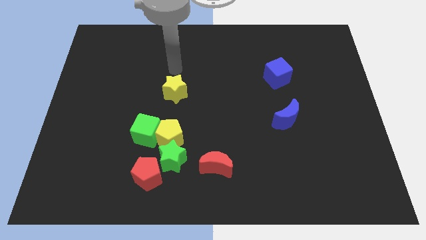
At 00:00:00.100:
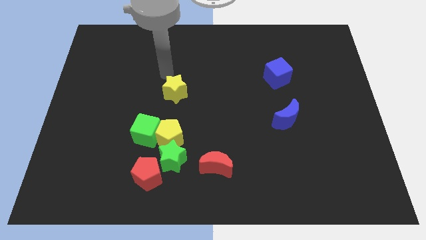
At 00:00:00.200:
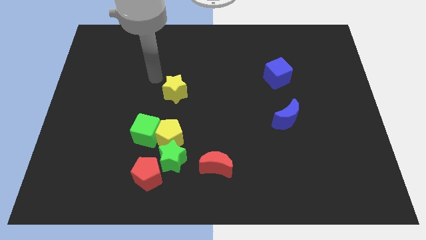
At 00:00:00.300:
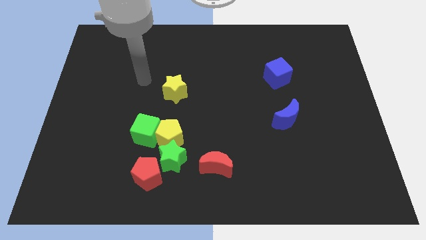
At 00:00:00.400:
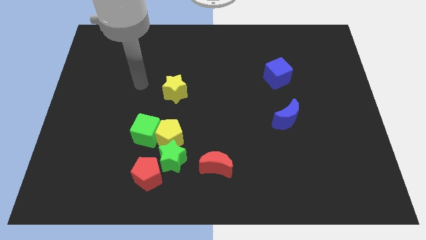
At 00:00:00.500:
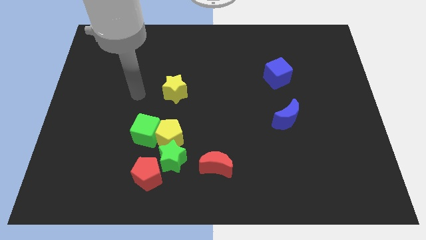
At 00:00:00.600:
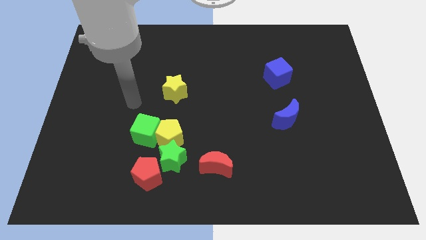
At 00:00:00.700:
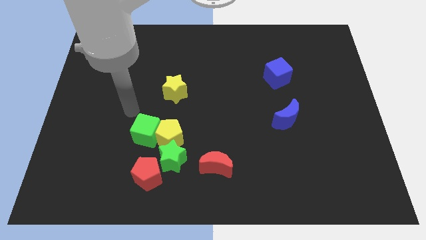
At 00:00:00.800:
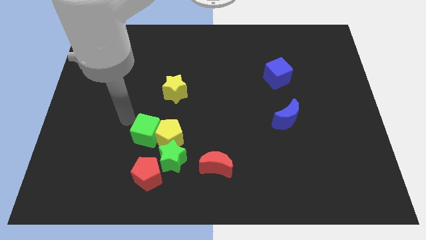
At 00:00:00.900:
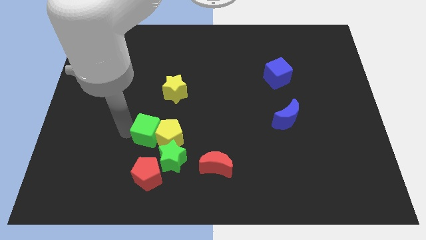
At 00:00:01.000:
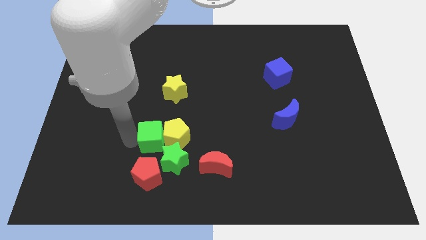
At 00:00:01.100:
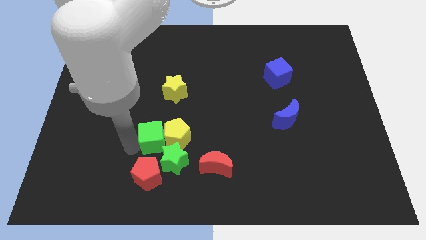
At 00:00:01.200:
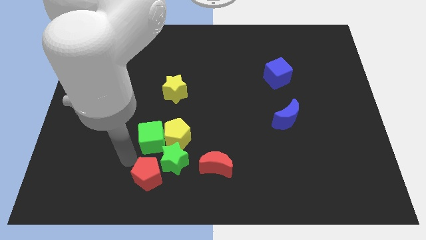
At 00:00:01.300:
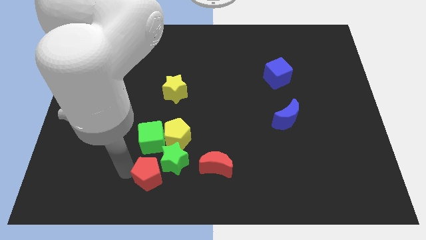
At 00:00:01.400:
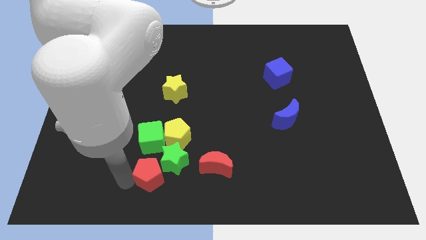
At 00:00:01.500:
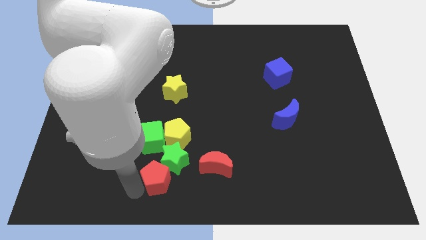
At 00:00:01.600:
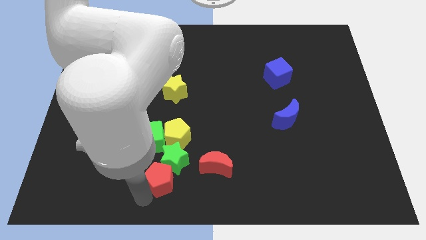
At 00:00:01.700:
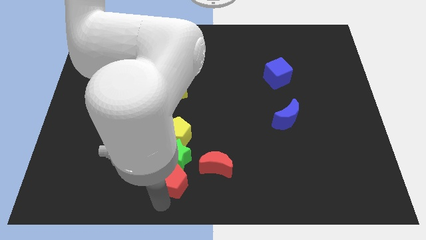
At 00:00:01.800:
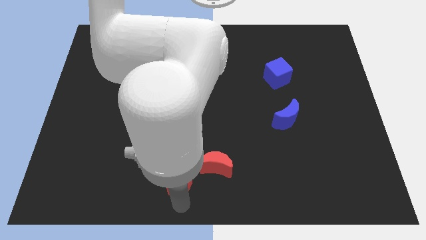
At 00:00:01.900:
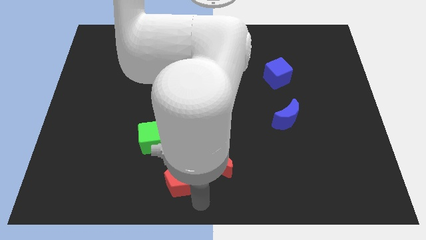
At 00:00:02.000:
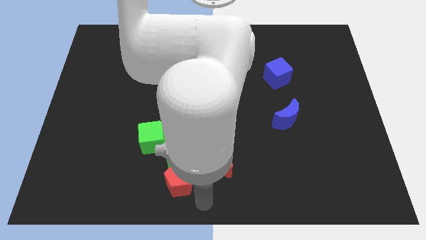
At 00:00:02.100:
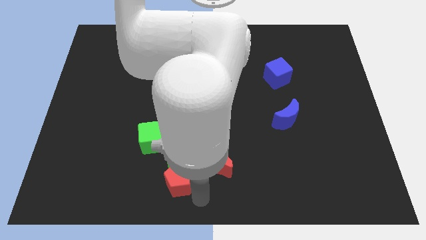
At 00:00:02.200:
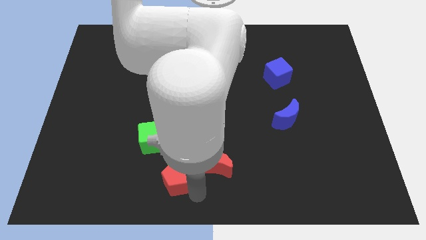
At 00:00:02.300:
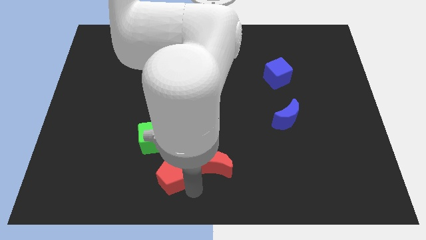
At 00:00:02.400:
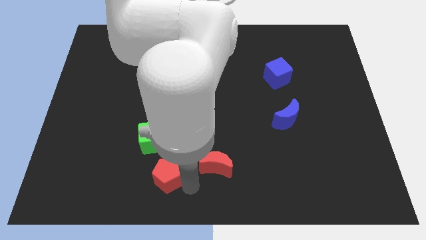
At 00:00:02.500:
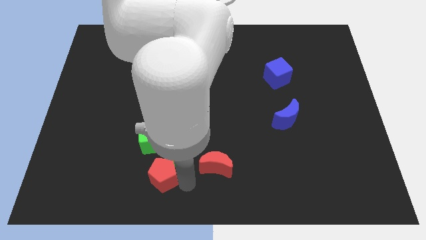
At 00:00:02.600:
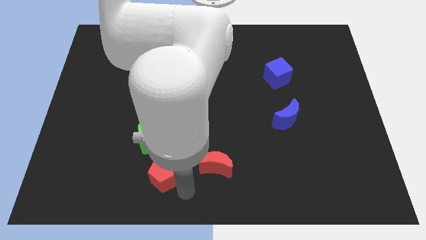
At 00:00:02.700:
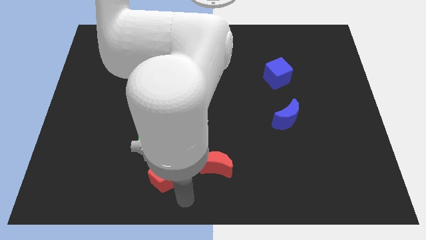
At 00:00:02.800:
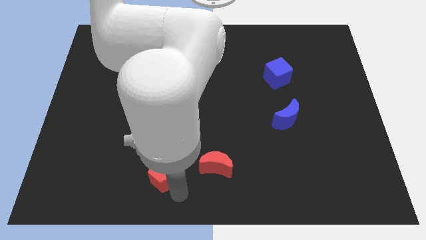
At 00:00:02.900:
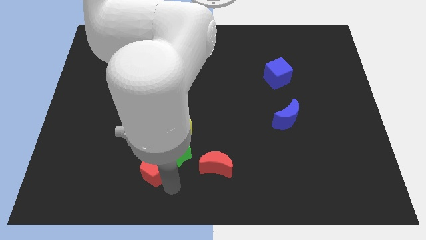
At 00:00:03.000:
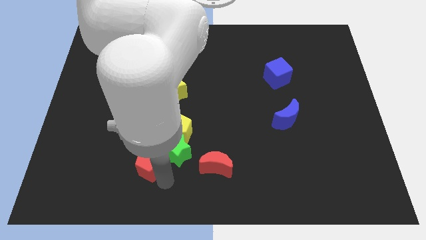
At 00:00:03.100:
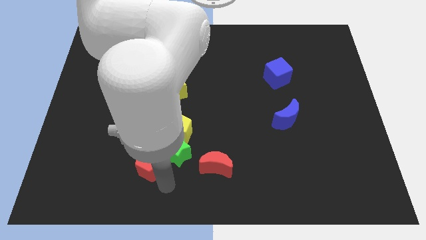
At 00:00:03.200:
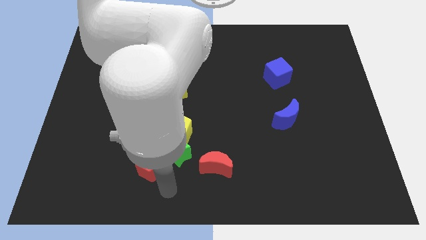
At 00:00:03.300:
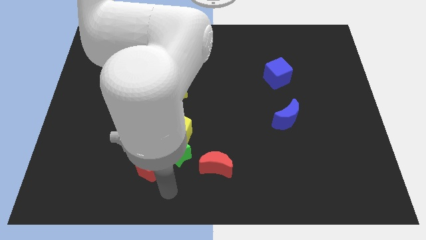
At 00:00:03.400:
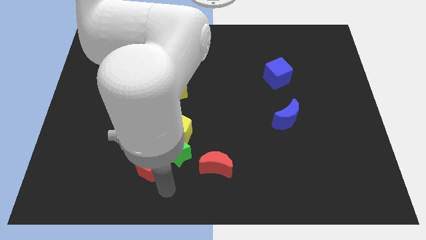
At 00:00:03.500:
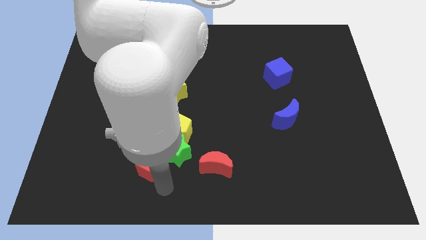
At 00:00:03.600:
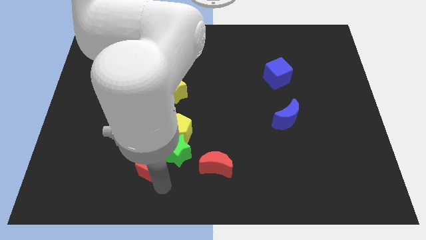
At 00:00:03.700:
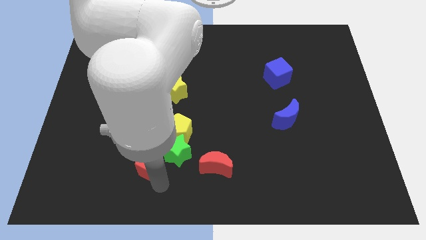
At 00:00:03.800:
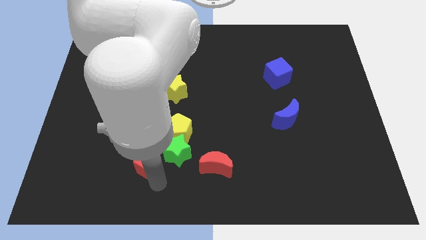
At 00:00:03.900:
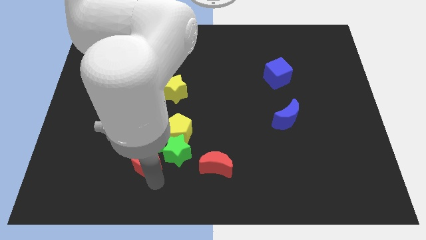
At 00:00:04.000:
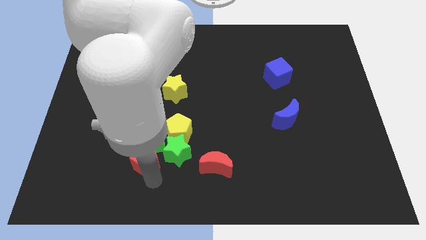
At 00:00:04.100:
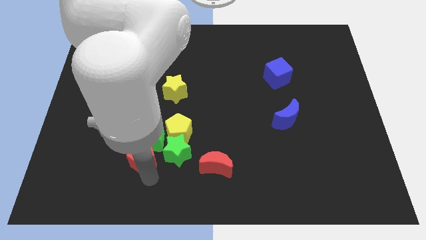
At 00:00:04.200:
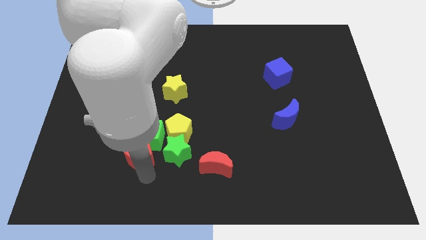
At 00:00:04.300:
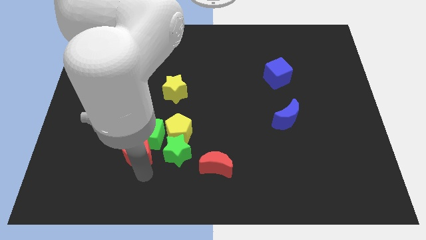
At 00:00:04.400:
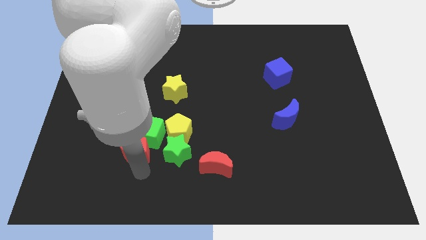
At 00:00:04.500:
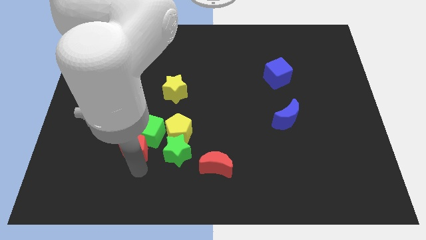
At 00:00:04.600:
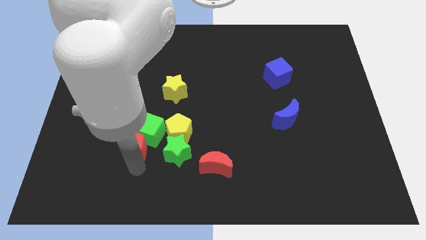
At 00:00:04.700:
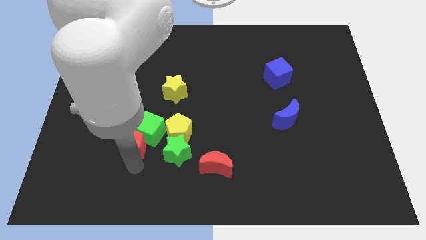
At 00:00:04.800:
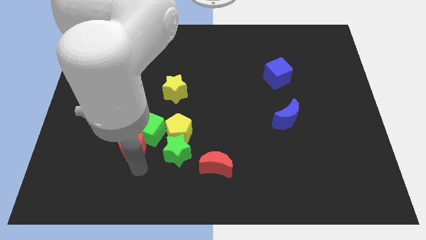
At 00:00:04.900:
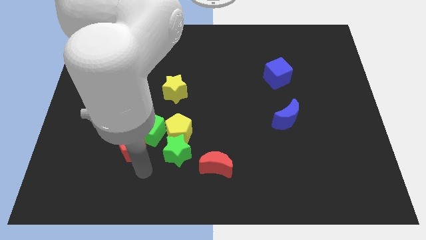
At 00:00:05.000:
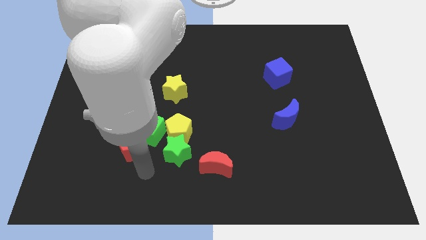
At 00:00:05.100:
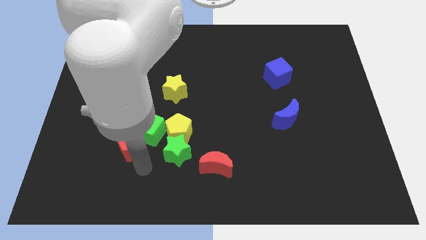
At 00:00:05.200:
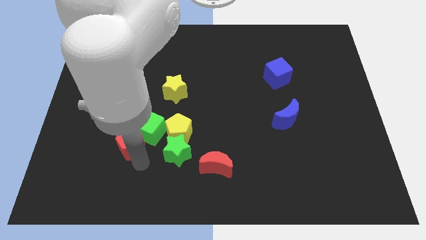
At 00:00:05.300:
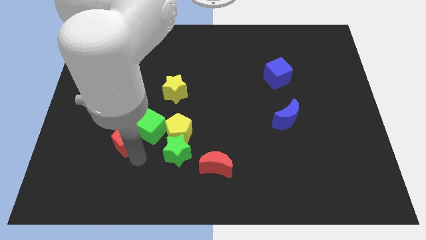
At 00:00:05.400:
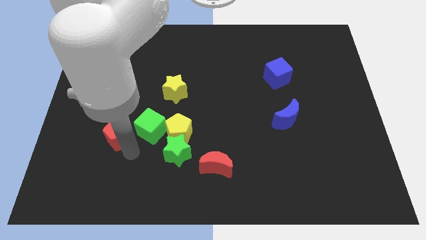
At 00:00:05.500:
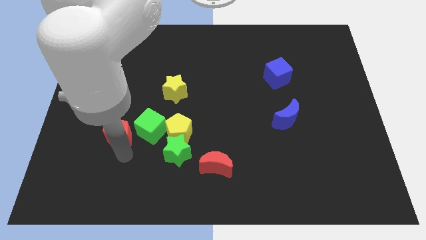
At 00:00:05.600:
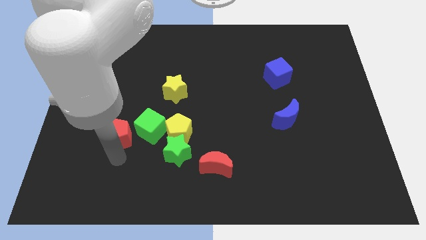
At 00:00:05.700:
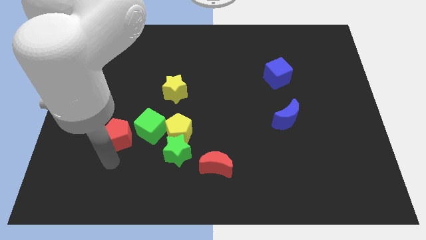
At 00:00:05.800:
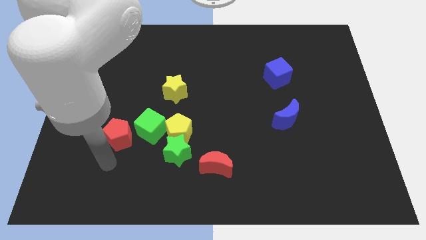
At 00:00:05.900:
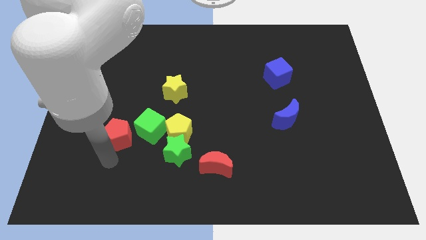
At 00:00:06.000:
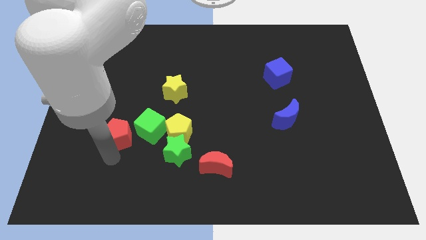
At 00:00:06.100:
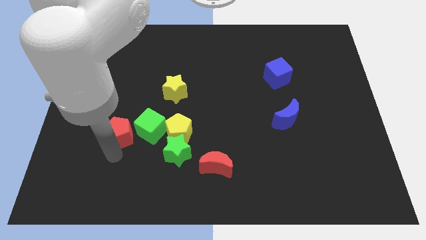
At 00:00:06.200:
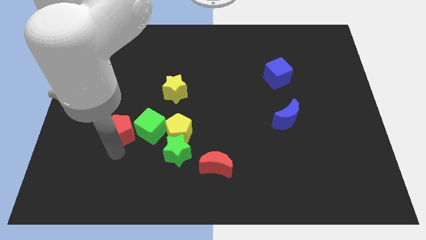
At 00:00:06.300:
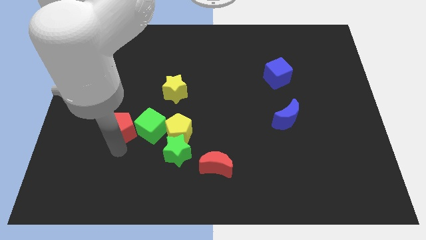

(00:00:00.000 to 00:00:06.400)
slide the red pentagon diagonally up and to the left of the green cube

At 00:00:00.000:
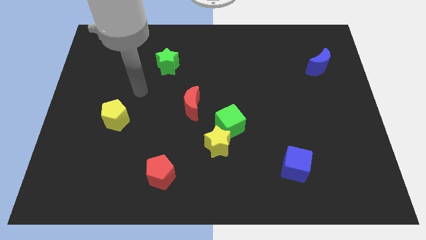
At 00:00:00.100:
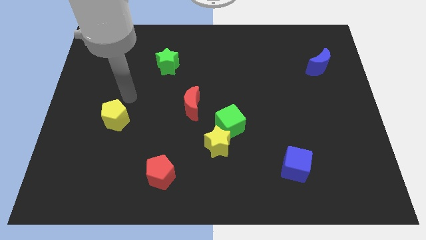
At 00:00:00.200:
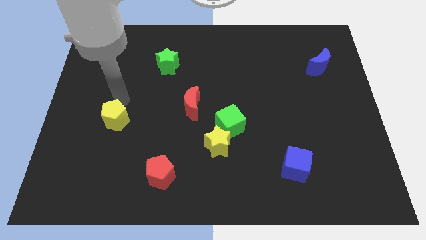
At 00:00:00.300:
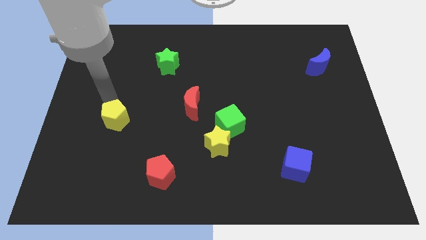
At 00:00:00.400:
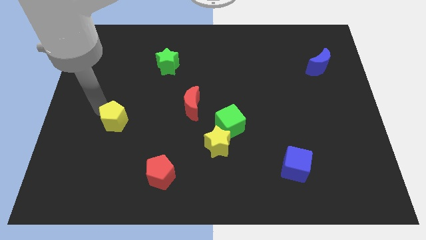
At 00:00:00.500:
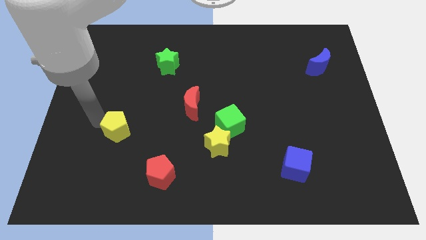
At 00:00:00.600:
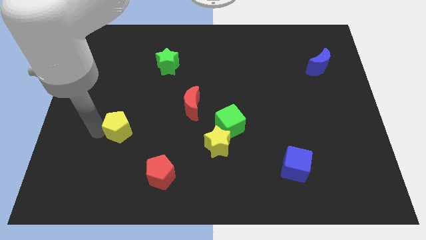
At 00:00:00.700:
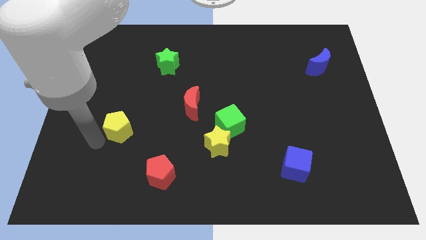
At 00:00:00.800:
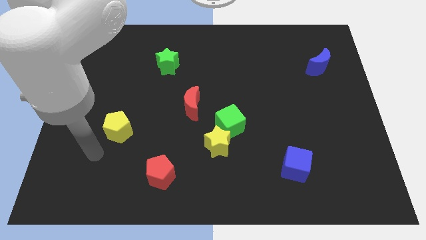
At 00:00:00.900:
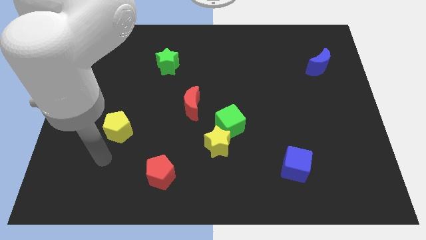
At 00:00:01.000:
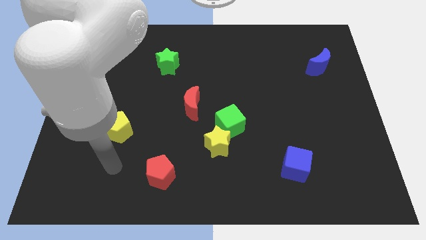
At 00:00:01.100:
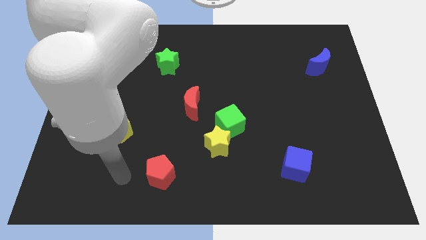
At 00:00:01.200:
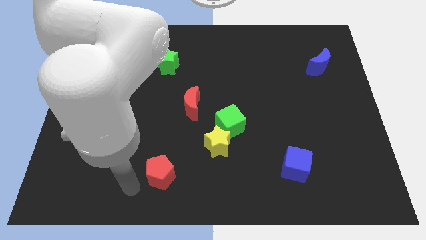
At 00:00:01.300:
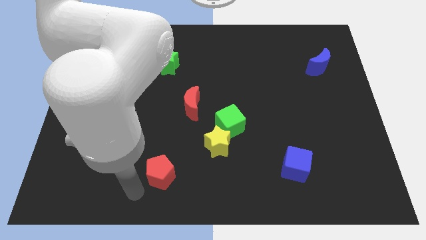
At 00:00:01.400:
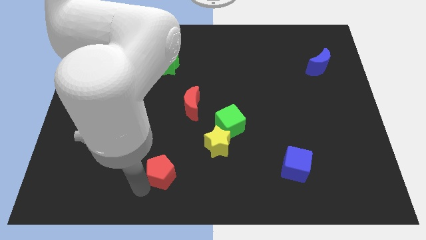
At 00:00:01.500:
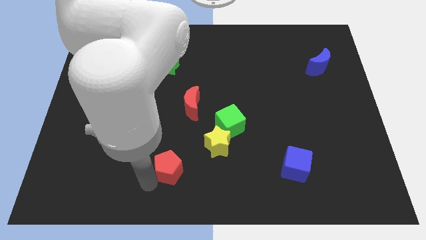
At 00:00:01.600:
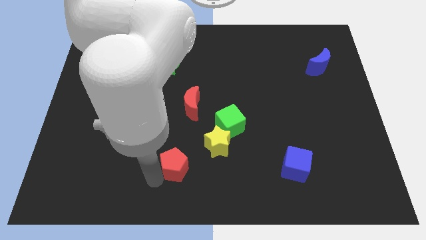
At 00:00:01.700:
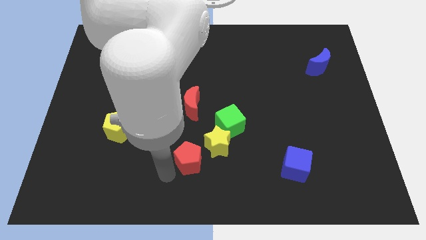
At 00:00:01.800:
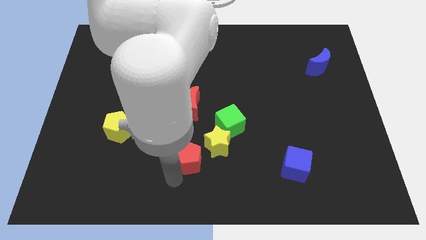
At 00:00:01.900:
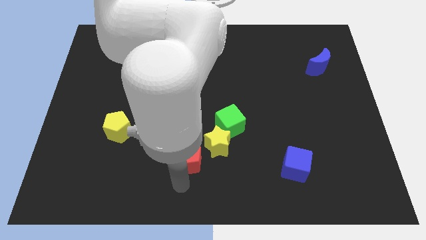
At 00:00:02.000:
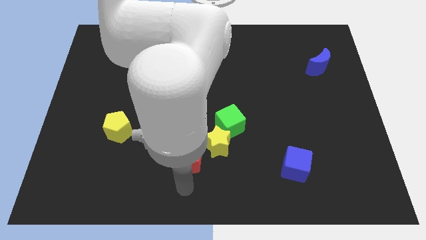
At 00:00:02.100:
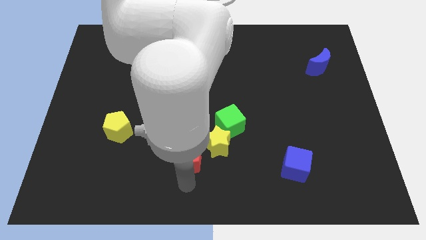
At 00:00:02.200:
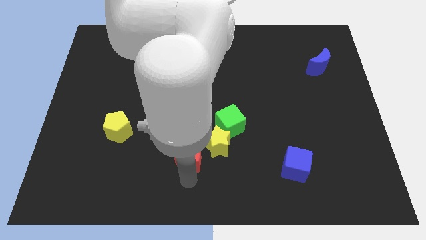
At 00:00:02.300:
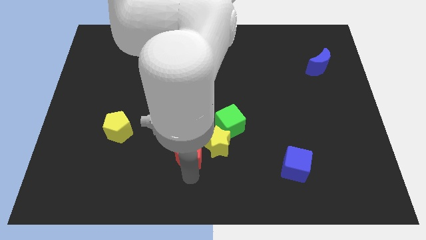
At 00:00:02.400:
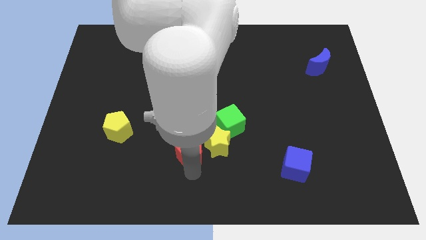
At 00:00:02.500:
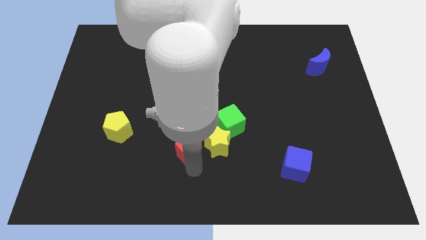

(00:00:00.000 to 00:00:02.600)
push the red pentagon to the top left of the yellow star
